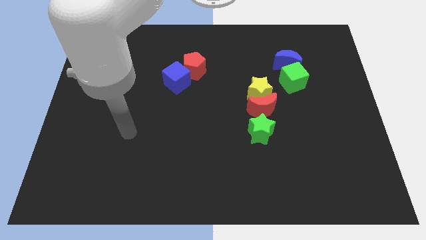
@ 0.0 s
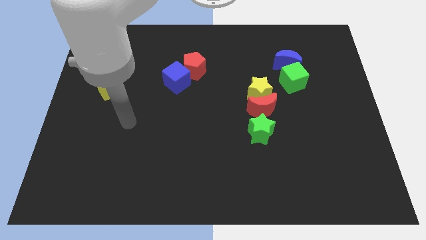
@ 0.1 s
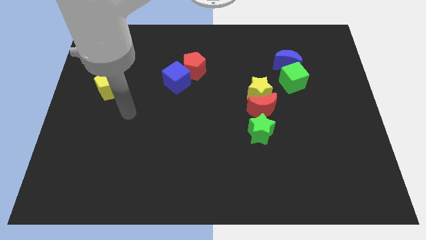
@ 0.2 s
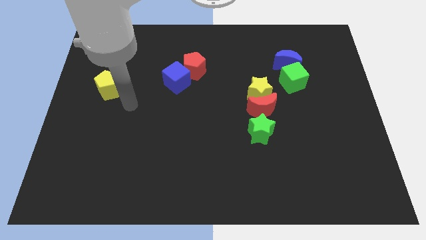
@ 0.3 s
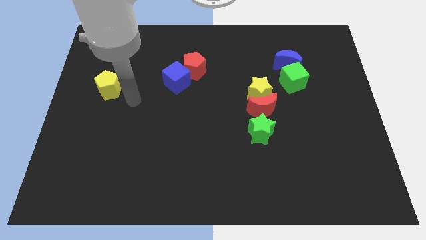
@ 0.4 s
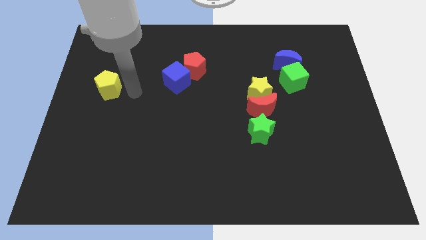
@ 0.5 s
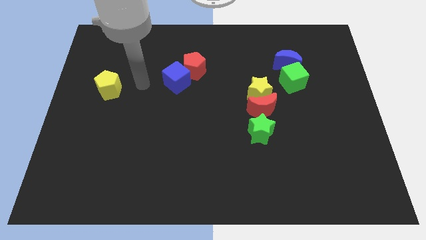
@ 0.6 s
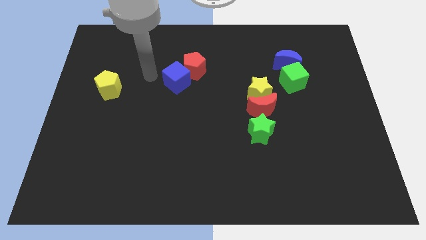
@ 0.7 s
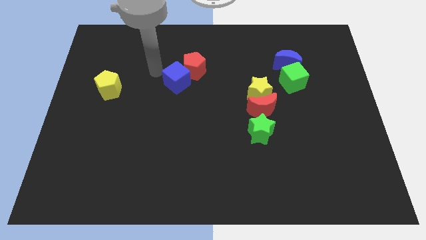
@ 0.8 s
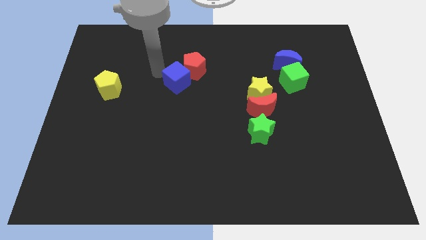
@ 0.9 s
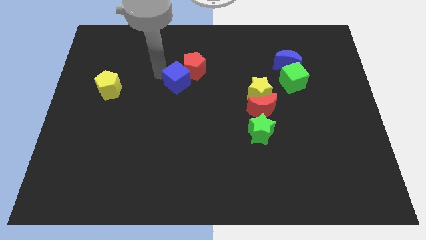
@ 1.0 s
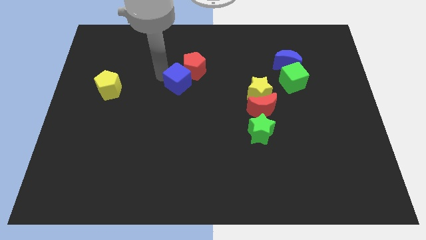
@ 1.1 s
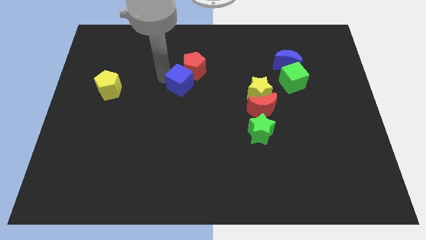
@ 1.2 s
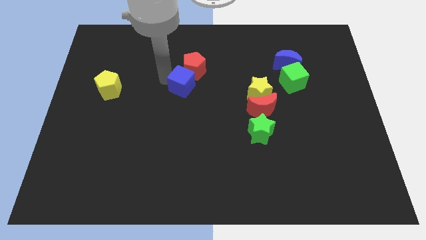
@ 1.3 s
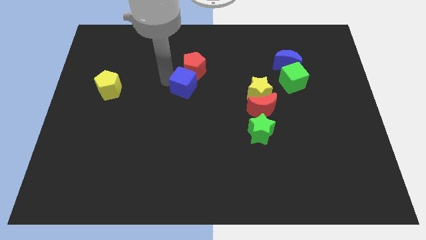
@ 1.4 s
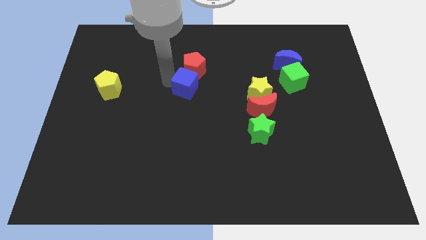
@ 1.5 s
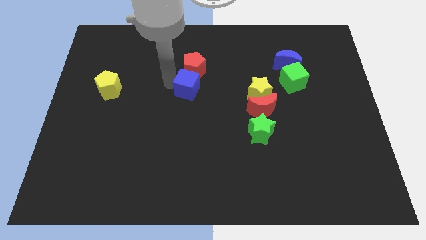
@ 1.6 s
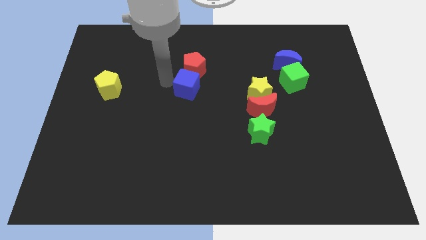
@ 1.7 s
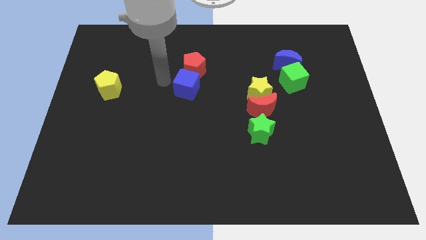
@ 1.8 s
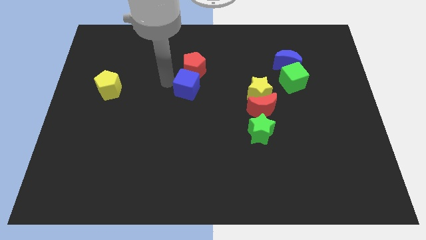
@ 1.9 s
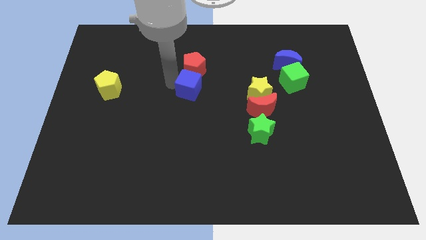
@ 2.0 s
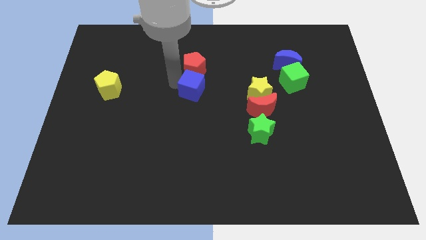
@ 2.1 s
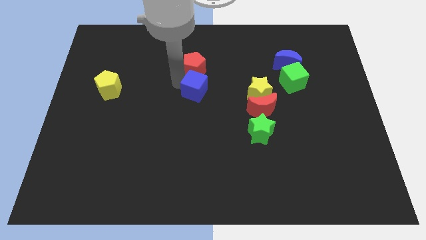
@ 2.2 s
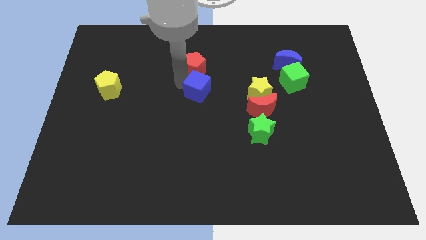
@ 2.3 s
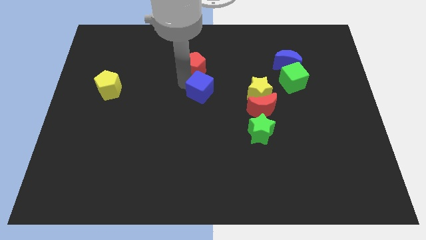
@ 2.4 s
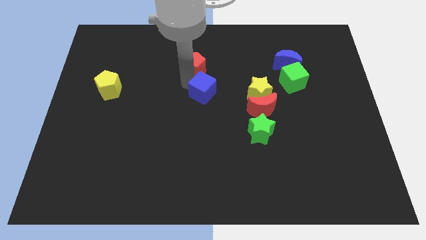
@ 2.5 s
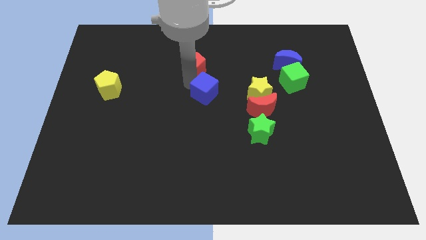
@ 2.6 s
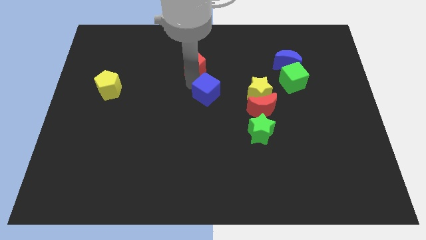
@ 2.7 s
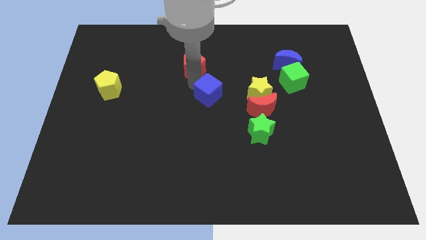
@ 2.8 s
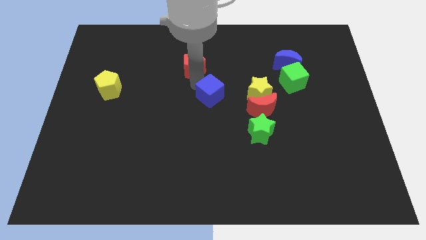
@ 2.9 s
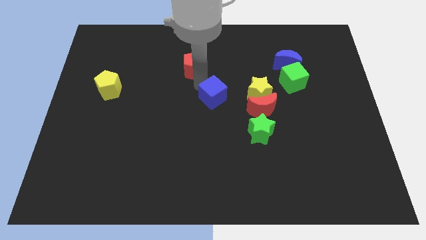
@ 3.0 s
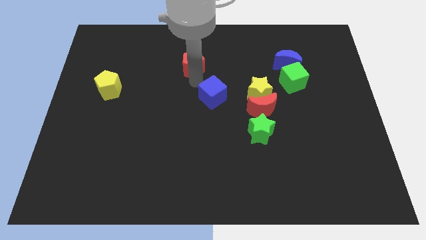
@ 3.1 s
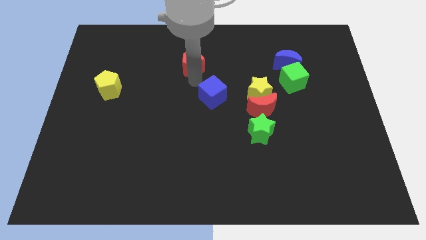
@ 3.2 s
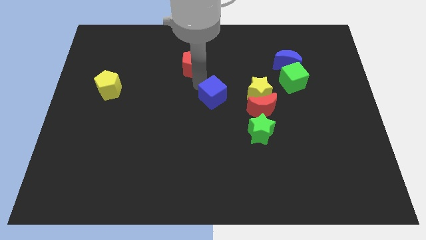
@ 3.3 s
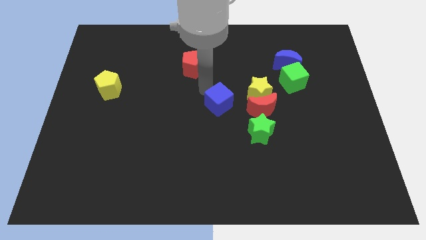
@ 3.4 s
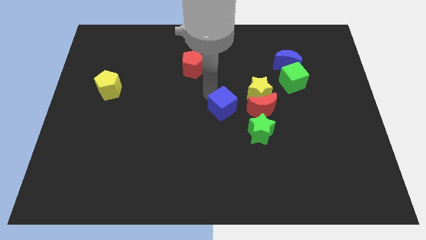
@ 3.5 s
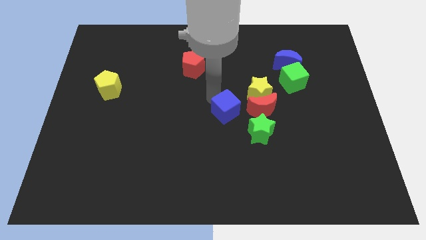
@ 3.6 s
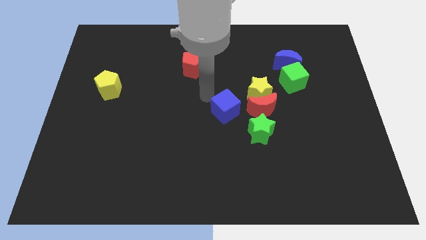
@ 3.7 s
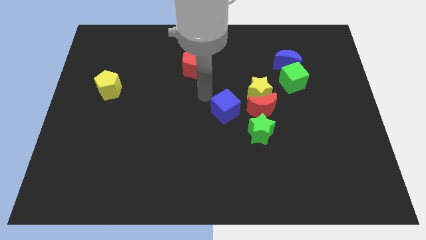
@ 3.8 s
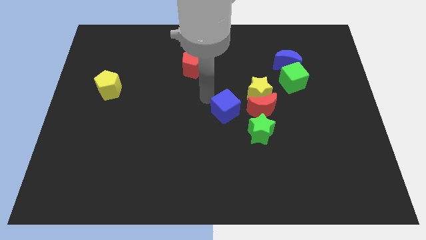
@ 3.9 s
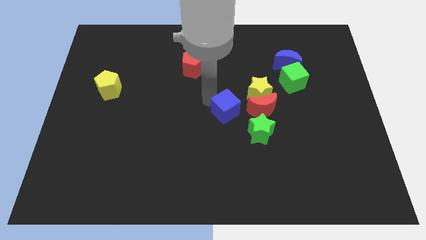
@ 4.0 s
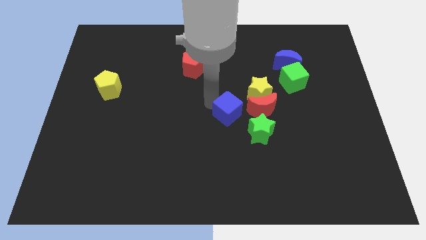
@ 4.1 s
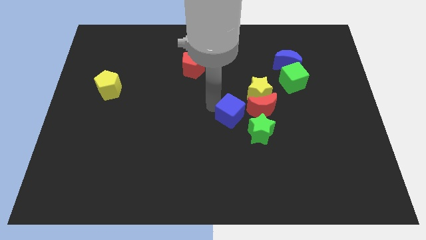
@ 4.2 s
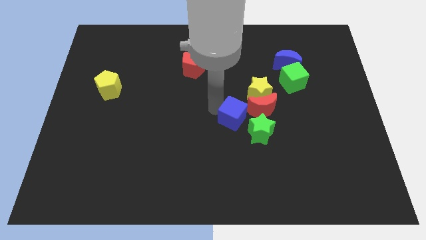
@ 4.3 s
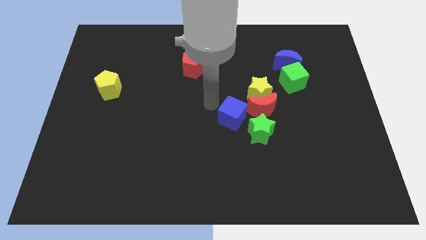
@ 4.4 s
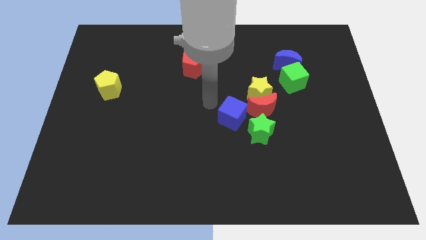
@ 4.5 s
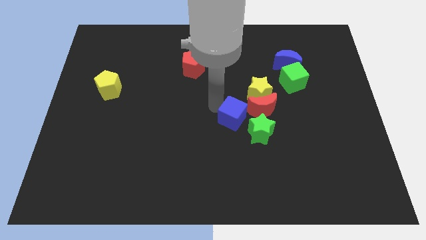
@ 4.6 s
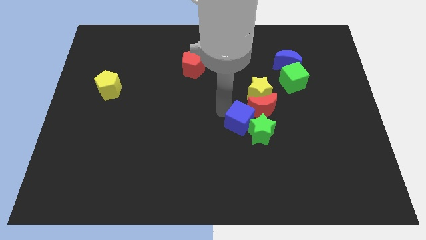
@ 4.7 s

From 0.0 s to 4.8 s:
move the blue cube next to the green star

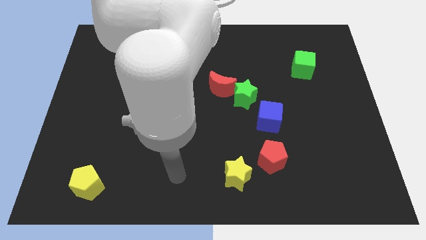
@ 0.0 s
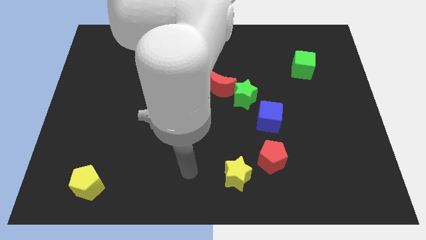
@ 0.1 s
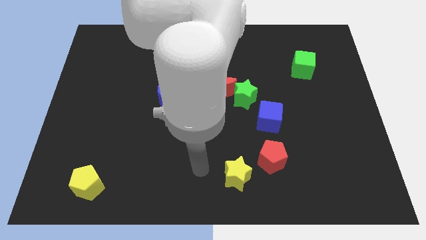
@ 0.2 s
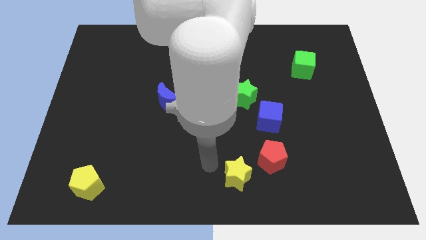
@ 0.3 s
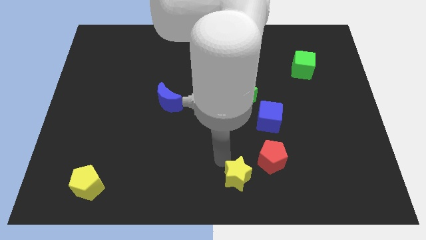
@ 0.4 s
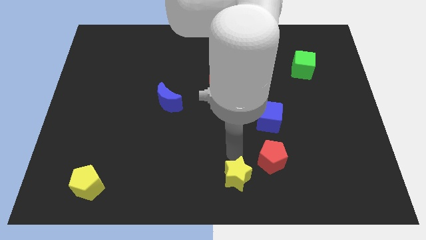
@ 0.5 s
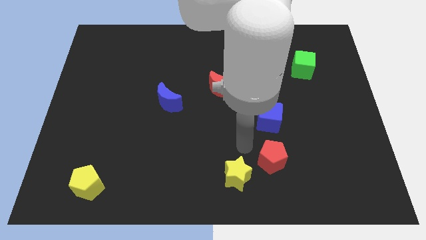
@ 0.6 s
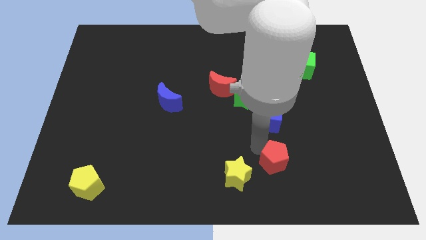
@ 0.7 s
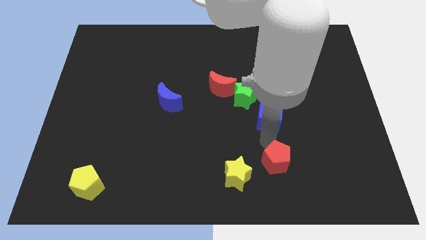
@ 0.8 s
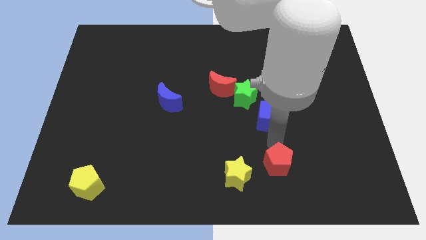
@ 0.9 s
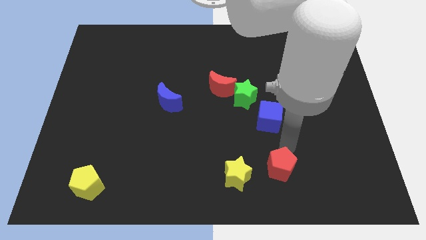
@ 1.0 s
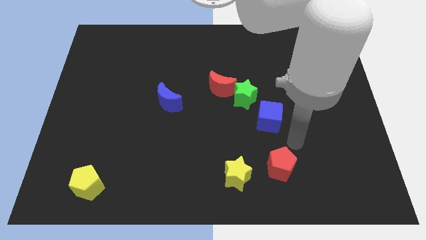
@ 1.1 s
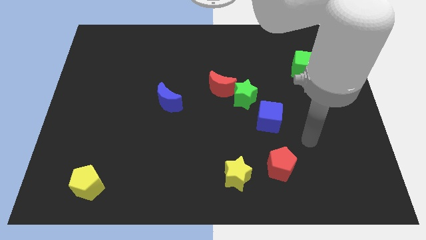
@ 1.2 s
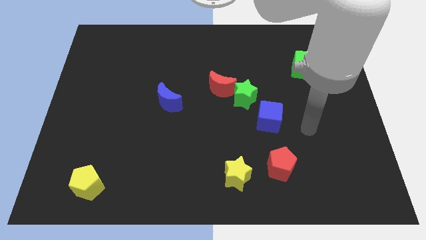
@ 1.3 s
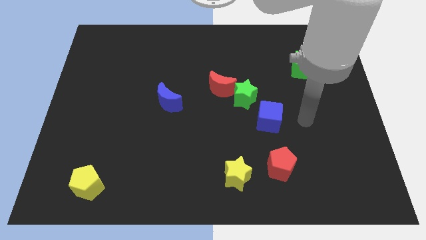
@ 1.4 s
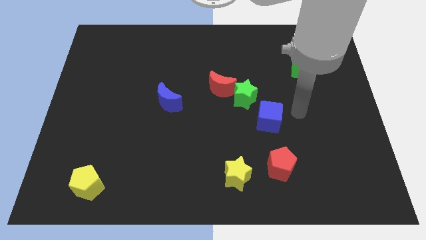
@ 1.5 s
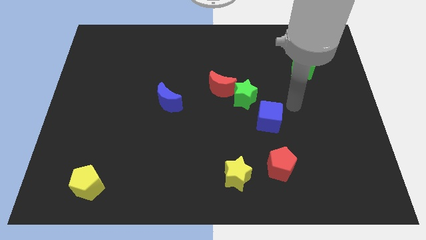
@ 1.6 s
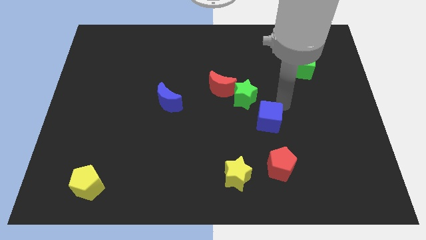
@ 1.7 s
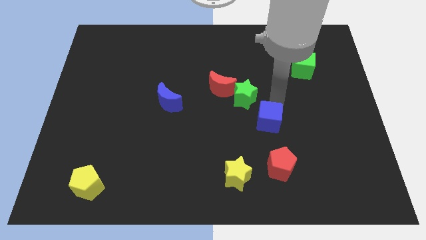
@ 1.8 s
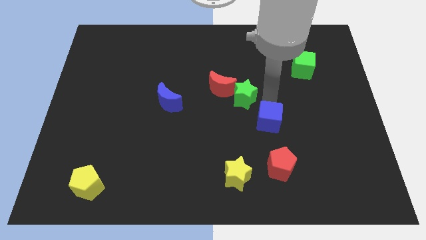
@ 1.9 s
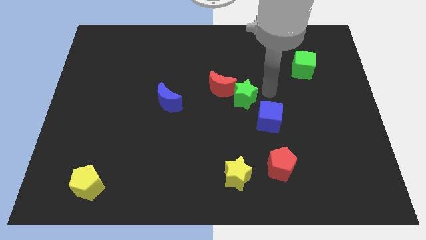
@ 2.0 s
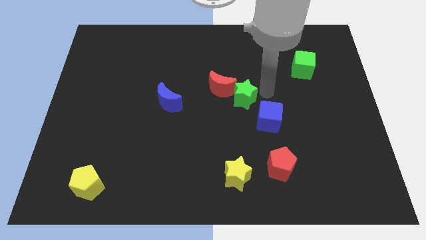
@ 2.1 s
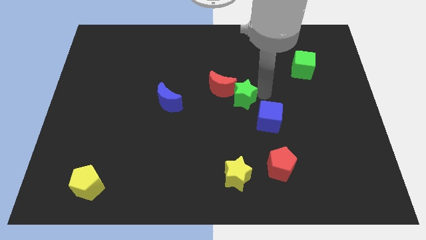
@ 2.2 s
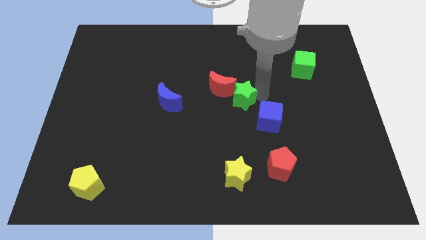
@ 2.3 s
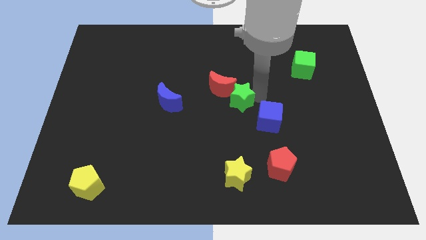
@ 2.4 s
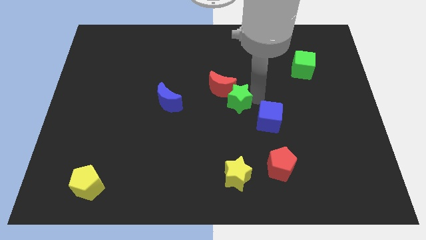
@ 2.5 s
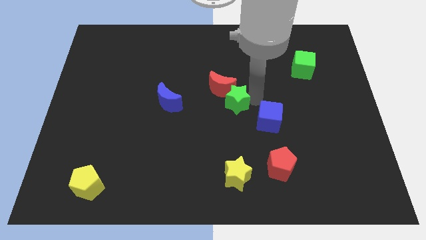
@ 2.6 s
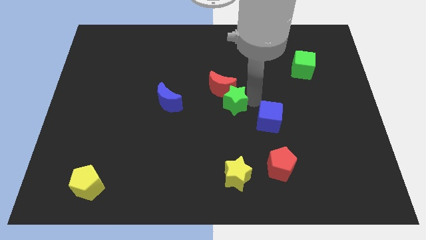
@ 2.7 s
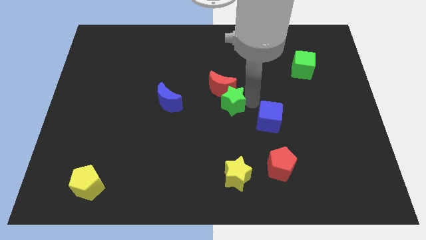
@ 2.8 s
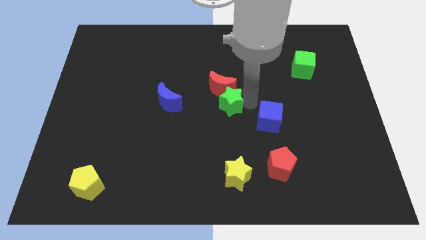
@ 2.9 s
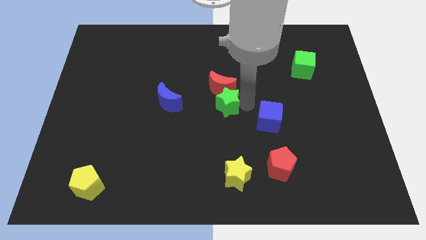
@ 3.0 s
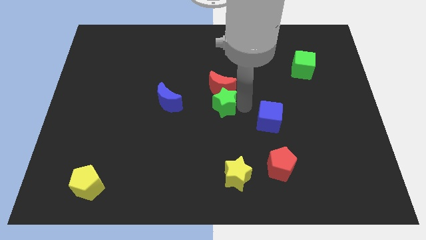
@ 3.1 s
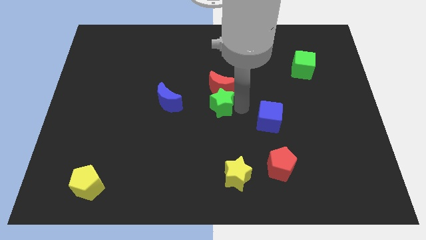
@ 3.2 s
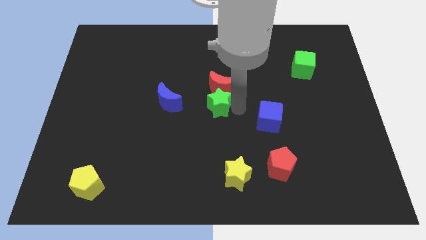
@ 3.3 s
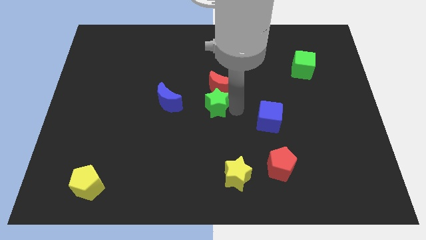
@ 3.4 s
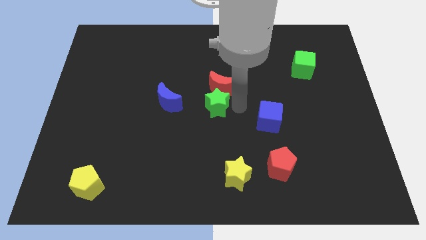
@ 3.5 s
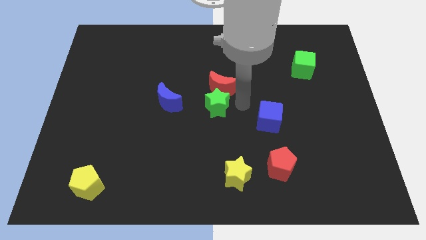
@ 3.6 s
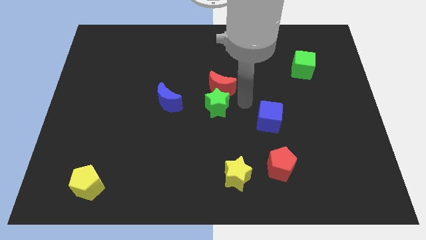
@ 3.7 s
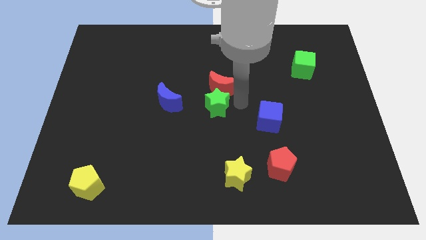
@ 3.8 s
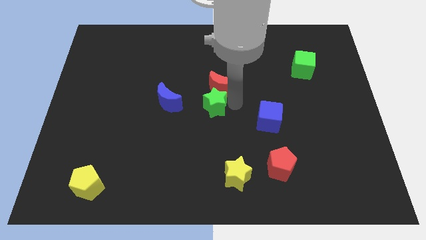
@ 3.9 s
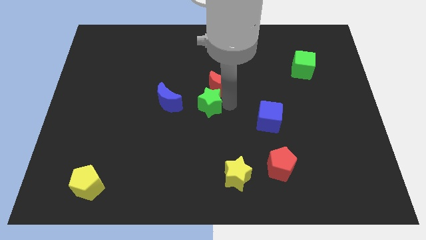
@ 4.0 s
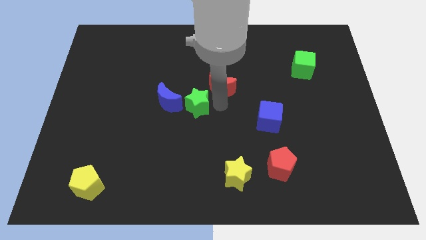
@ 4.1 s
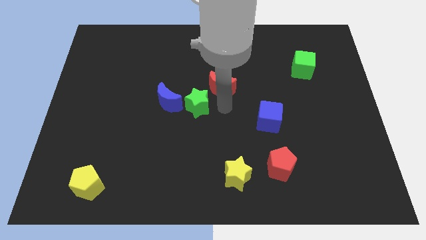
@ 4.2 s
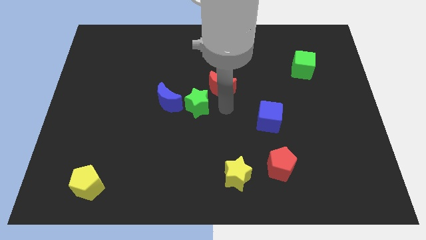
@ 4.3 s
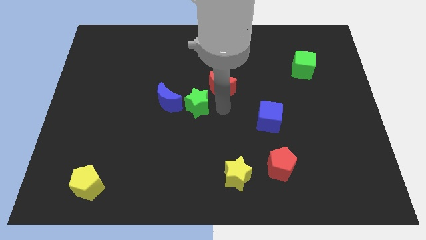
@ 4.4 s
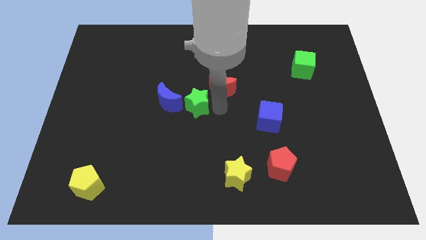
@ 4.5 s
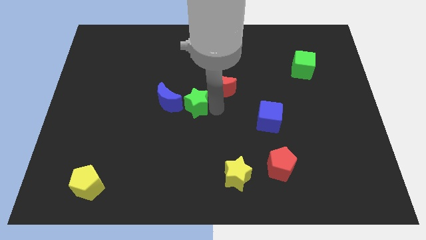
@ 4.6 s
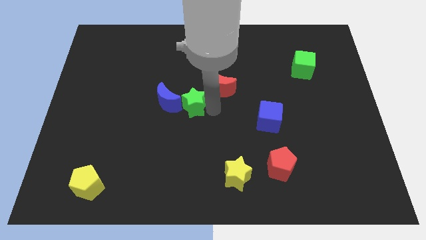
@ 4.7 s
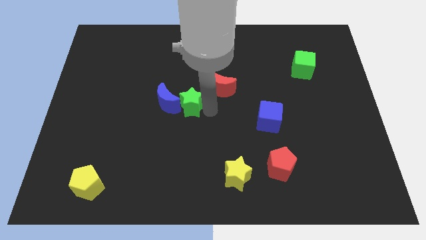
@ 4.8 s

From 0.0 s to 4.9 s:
slide the green star next to the blue moon
